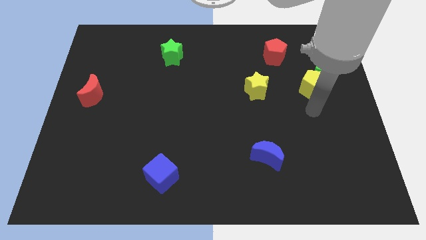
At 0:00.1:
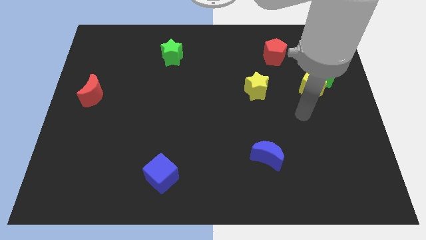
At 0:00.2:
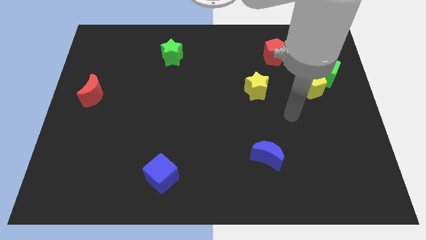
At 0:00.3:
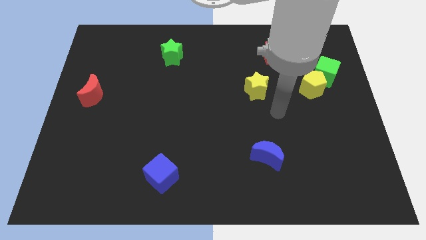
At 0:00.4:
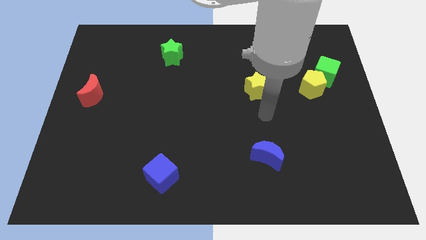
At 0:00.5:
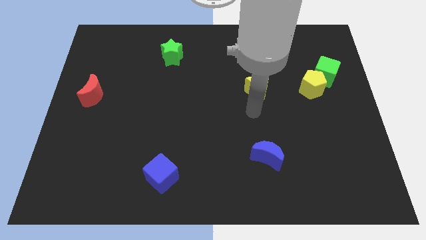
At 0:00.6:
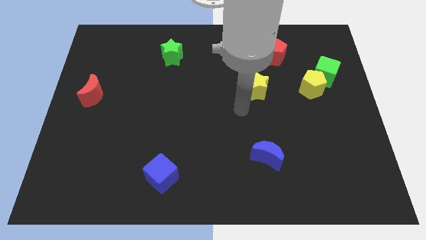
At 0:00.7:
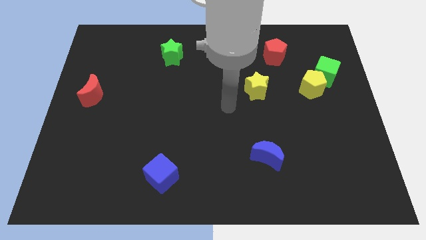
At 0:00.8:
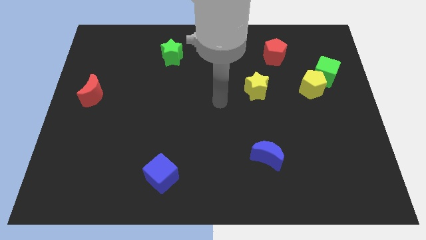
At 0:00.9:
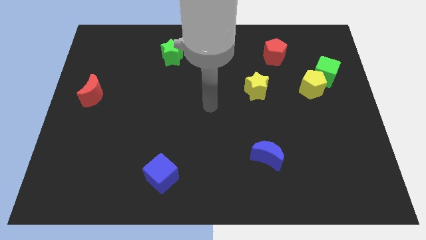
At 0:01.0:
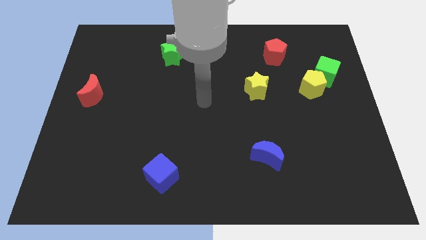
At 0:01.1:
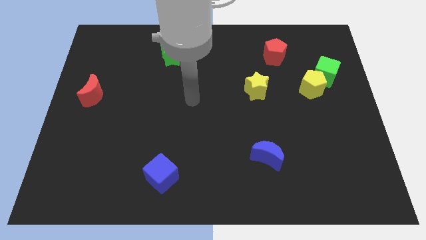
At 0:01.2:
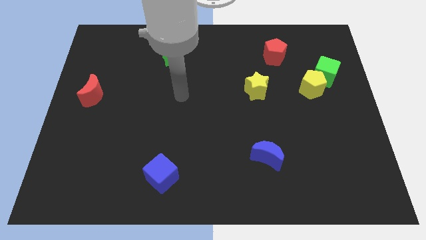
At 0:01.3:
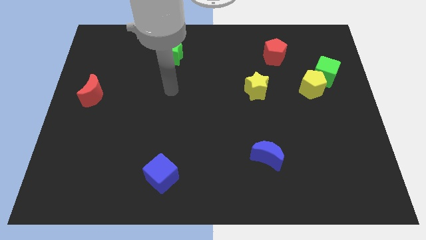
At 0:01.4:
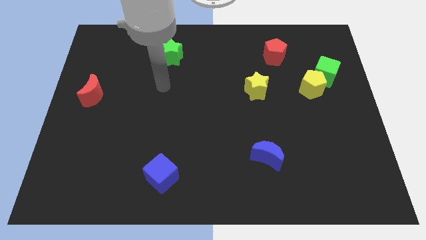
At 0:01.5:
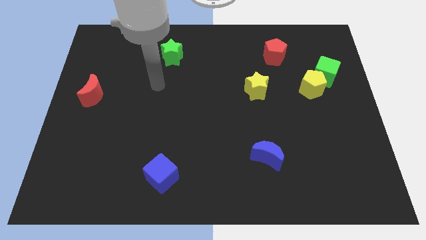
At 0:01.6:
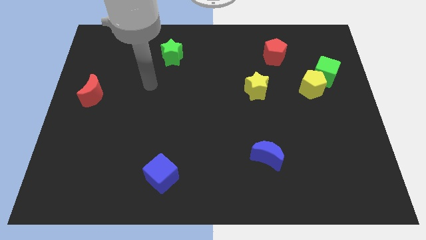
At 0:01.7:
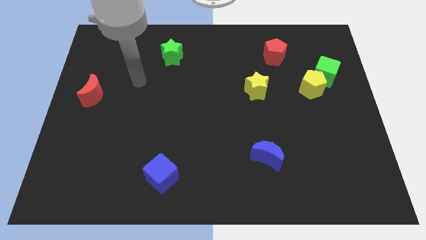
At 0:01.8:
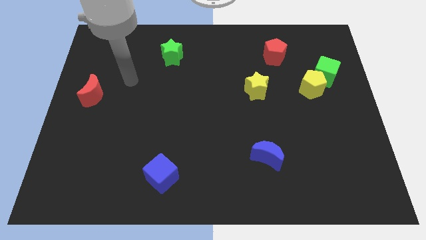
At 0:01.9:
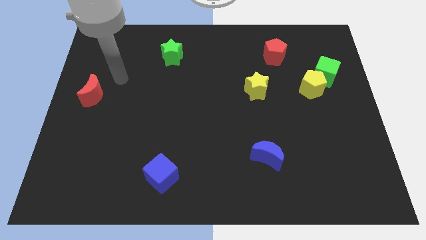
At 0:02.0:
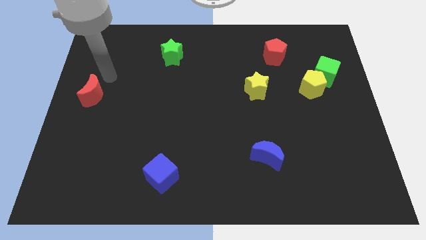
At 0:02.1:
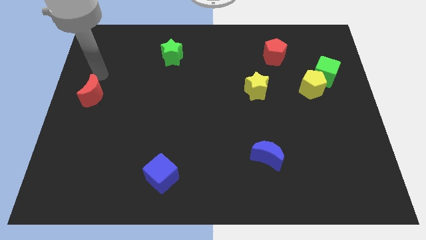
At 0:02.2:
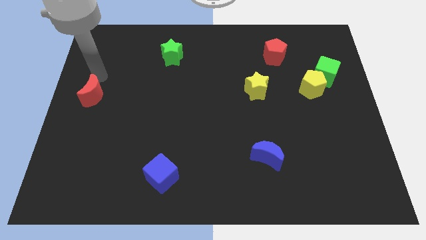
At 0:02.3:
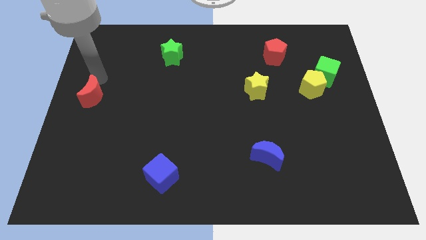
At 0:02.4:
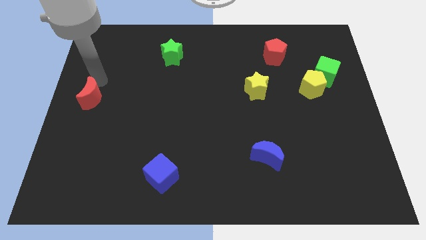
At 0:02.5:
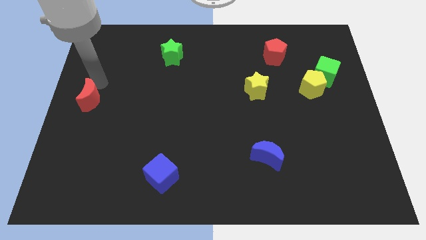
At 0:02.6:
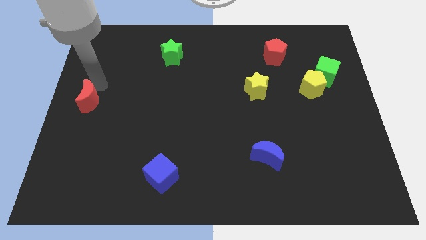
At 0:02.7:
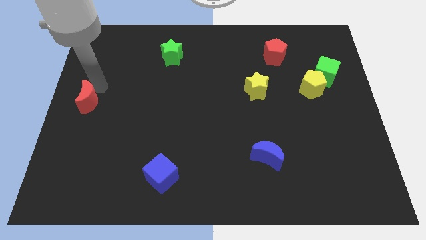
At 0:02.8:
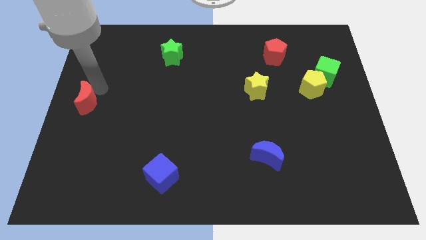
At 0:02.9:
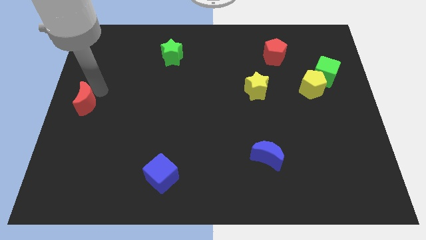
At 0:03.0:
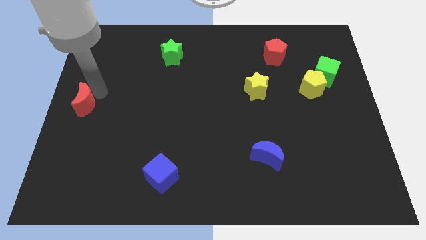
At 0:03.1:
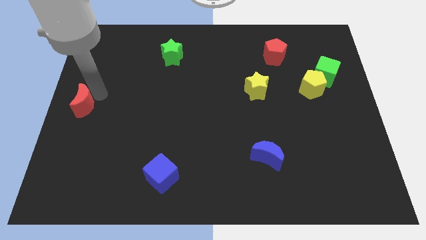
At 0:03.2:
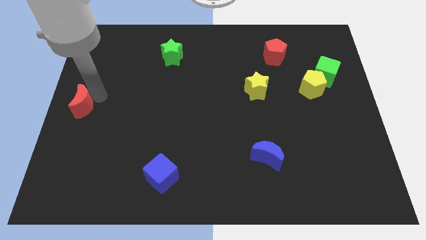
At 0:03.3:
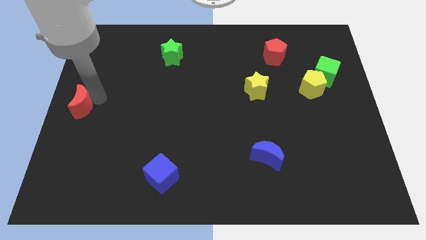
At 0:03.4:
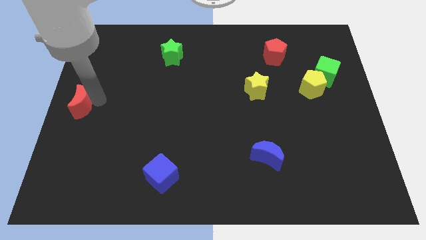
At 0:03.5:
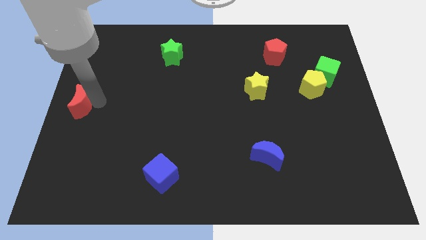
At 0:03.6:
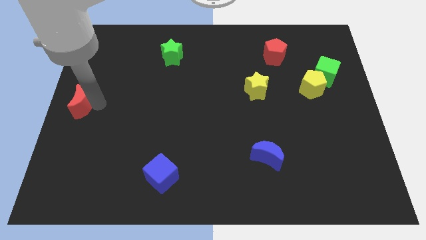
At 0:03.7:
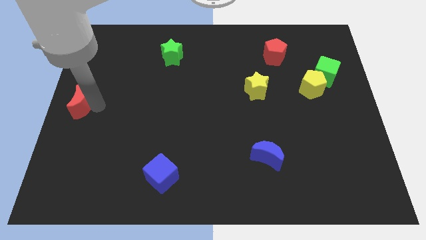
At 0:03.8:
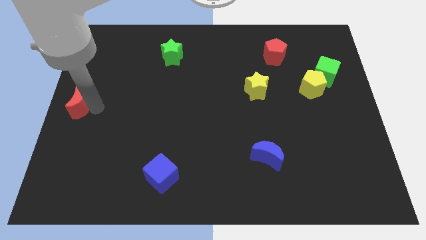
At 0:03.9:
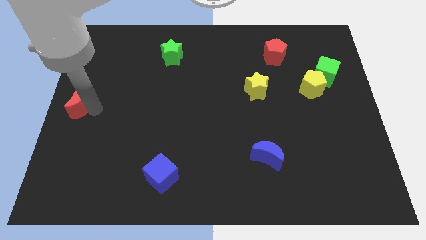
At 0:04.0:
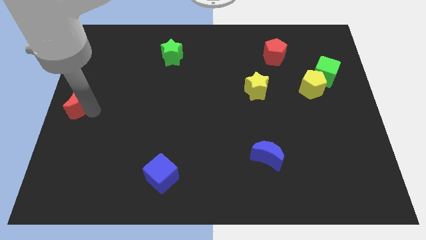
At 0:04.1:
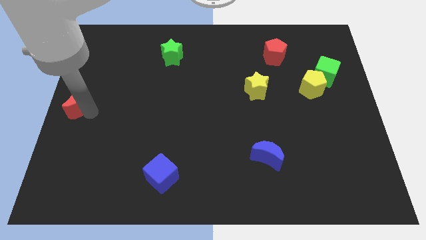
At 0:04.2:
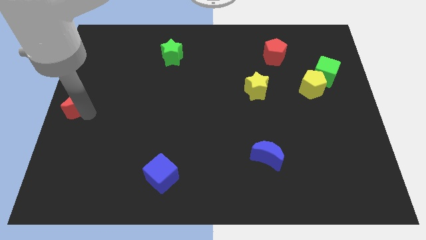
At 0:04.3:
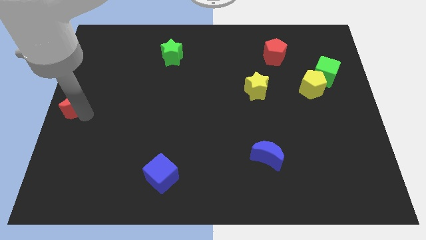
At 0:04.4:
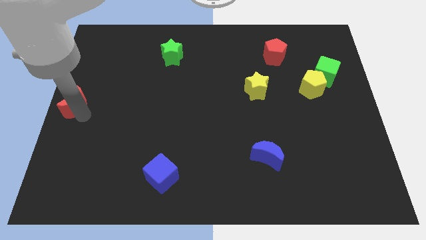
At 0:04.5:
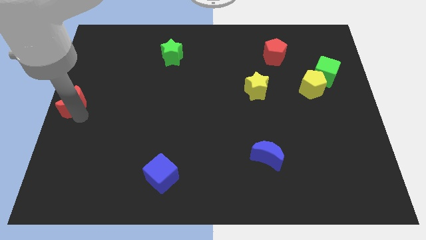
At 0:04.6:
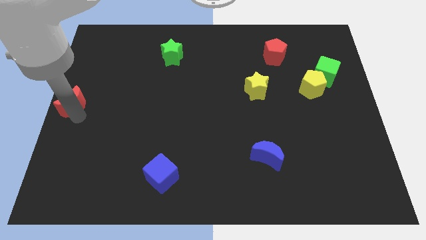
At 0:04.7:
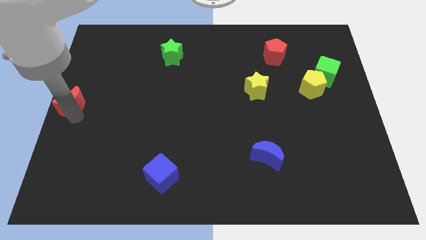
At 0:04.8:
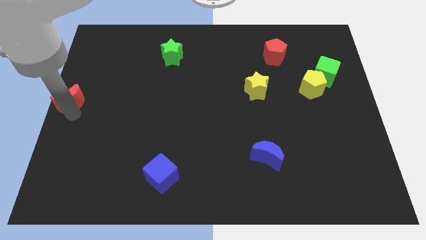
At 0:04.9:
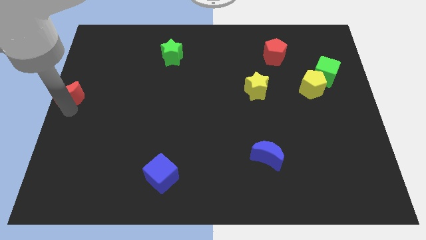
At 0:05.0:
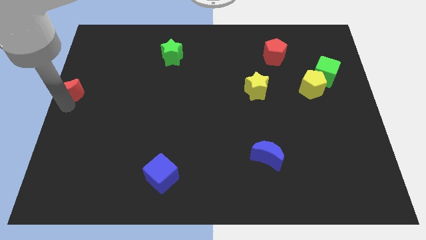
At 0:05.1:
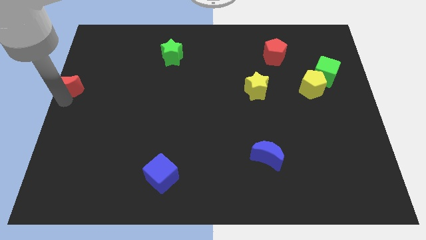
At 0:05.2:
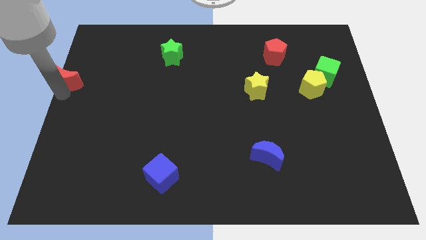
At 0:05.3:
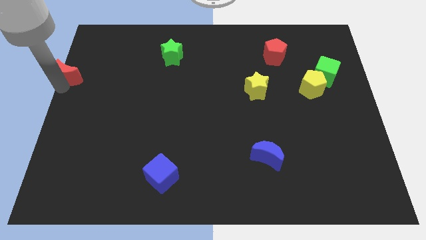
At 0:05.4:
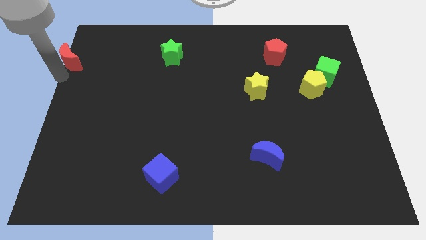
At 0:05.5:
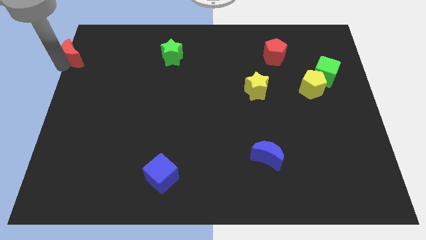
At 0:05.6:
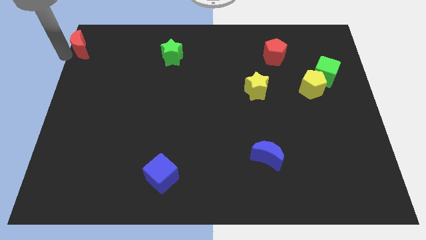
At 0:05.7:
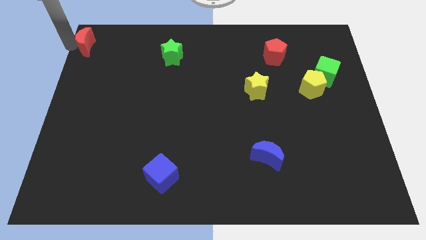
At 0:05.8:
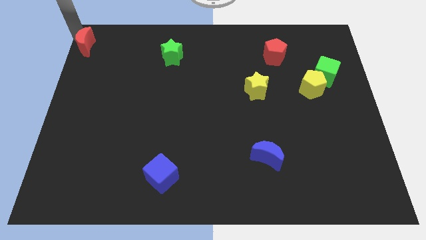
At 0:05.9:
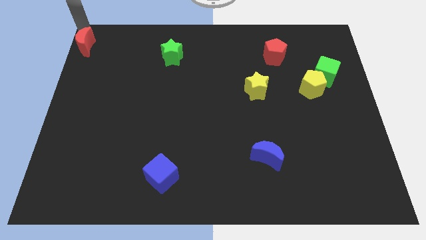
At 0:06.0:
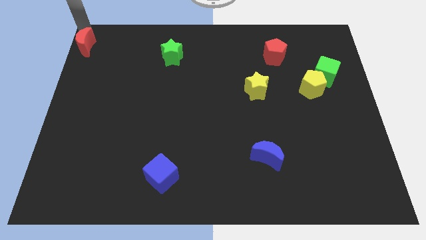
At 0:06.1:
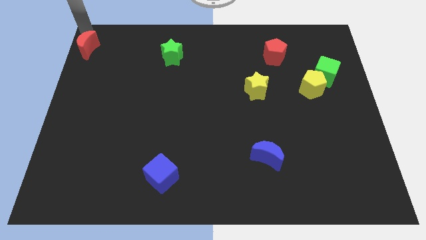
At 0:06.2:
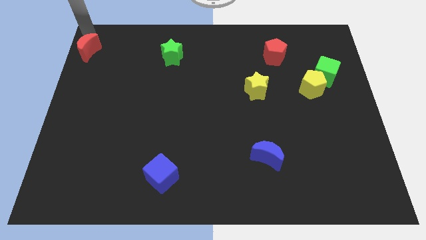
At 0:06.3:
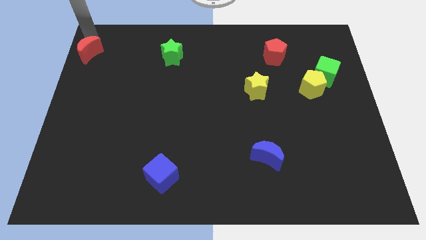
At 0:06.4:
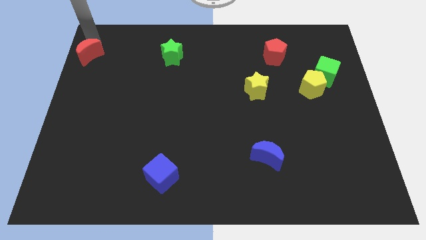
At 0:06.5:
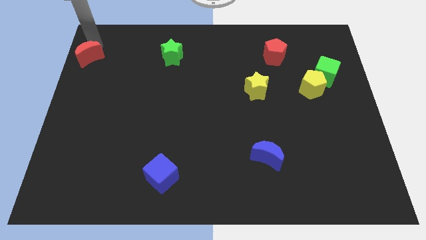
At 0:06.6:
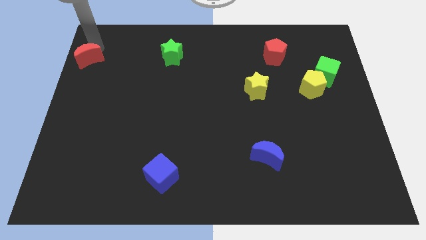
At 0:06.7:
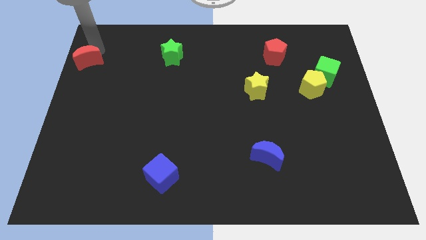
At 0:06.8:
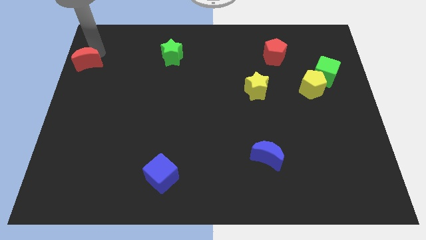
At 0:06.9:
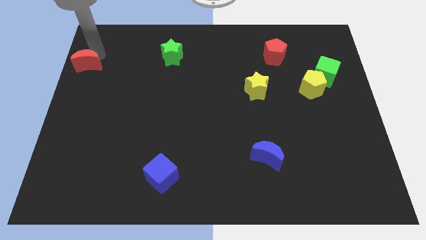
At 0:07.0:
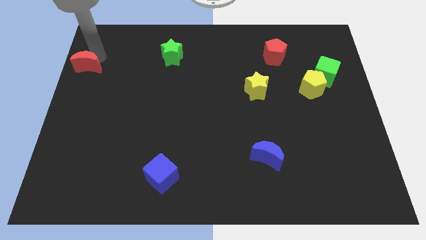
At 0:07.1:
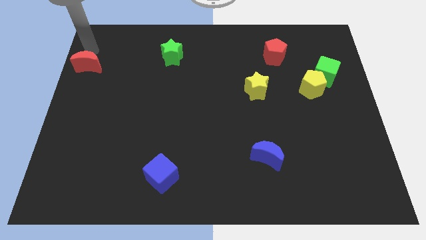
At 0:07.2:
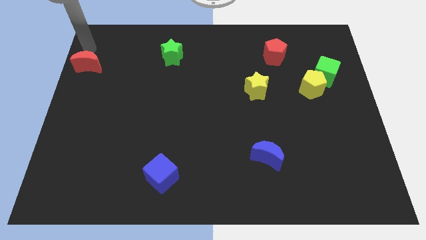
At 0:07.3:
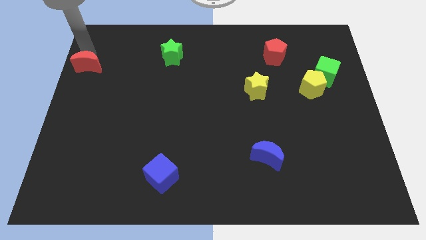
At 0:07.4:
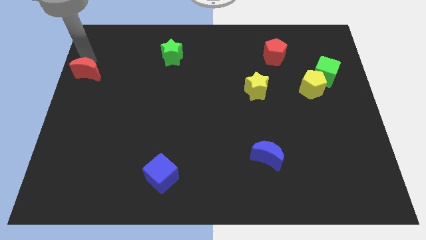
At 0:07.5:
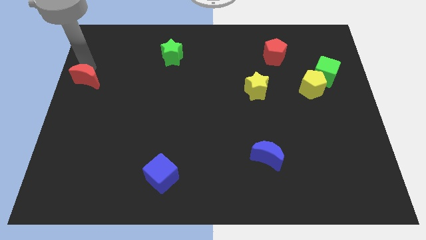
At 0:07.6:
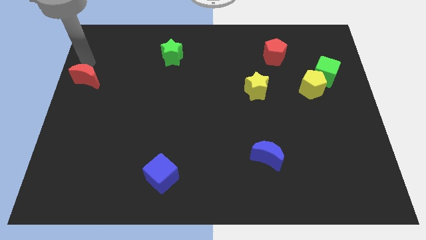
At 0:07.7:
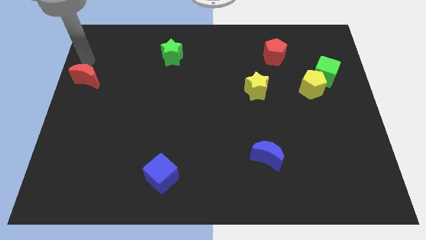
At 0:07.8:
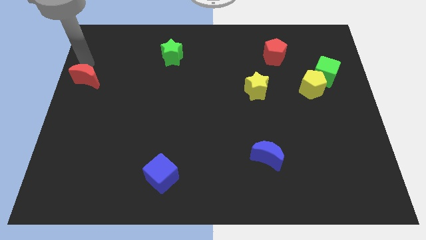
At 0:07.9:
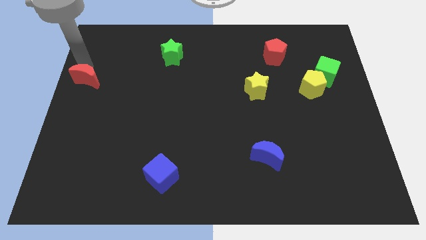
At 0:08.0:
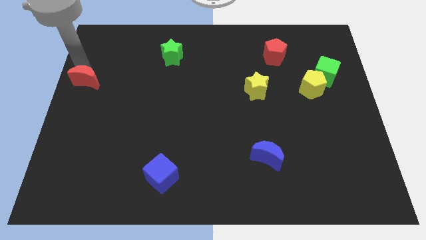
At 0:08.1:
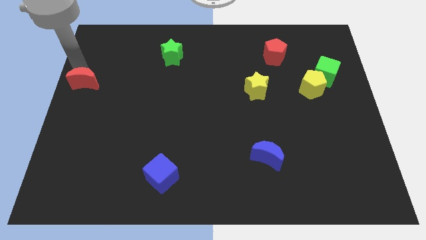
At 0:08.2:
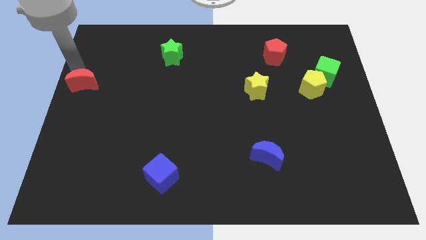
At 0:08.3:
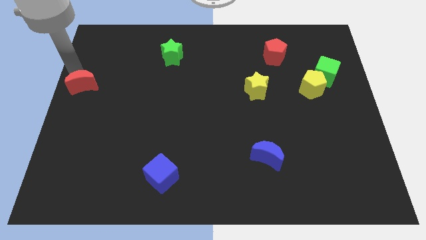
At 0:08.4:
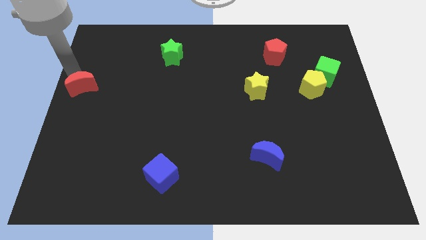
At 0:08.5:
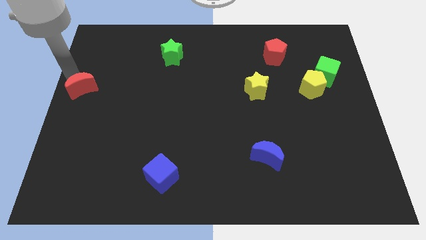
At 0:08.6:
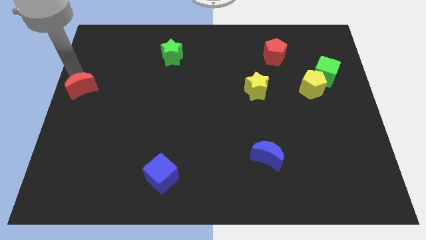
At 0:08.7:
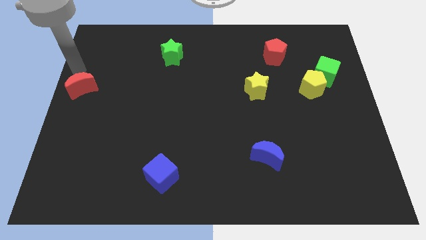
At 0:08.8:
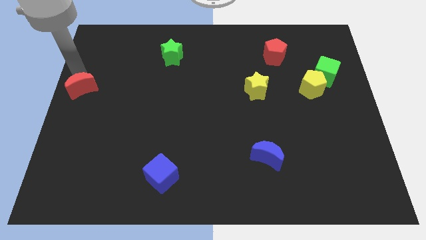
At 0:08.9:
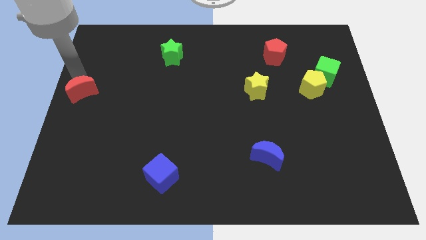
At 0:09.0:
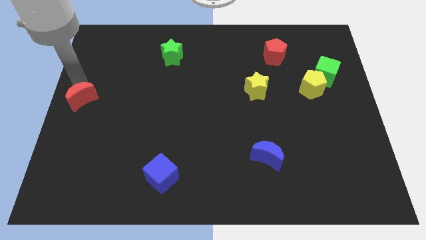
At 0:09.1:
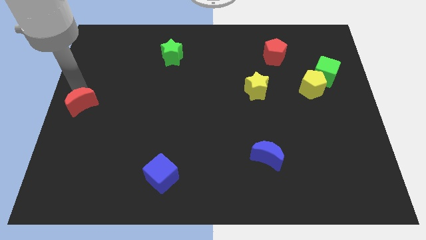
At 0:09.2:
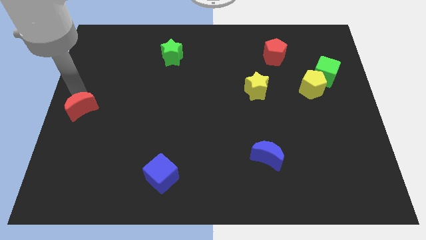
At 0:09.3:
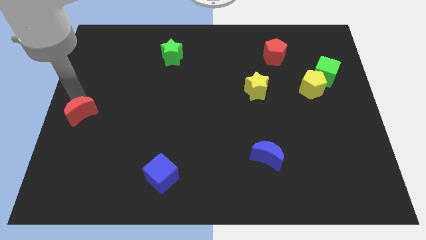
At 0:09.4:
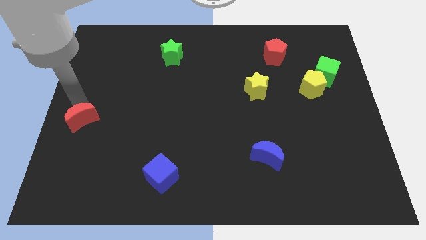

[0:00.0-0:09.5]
slightly push the red moon downwards
